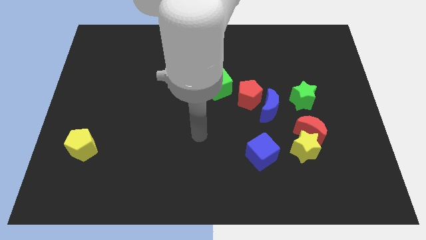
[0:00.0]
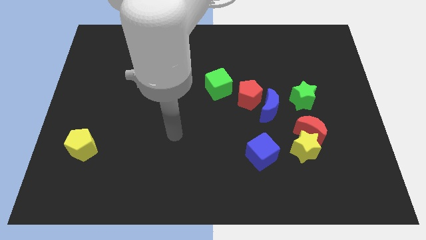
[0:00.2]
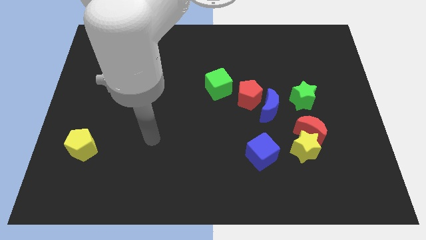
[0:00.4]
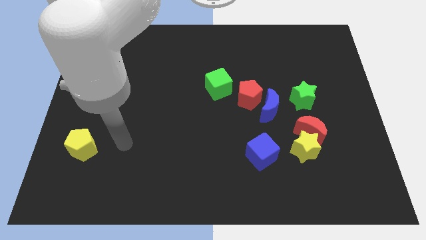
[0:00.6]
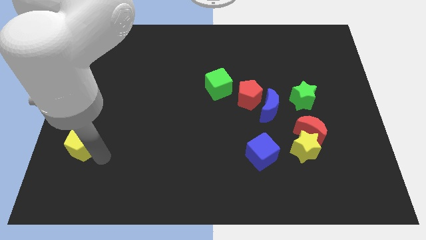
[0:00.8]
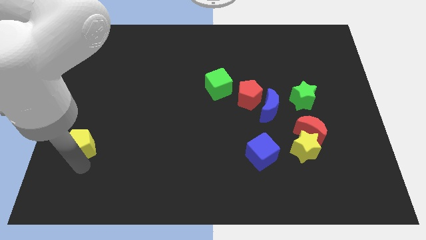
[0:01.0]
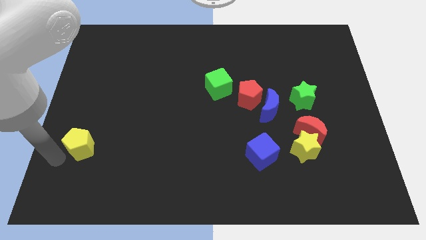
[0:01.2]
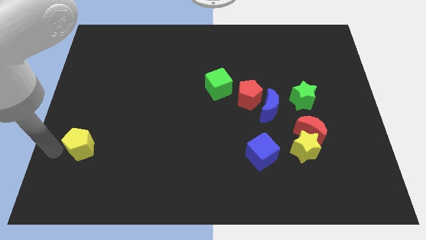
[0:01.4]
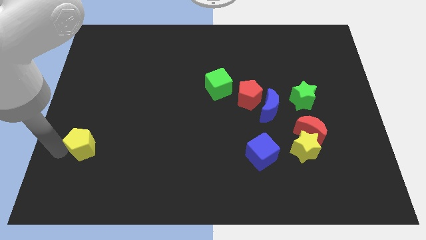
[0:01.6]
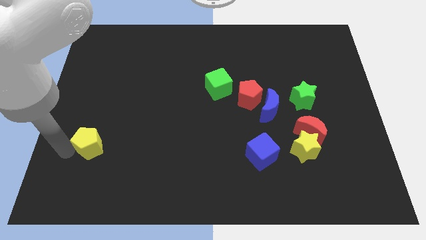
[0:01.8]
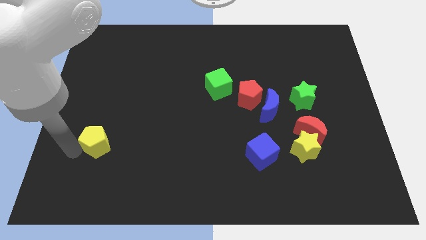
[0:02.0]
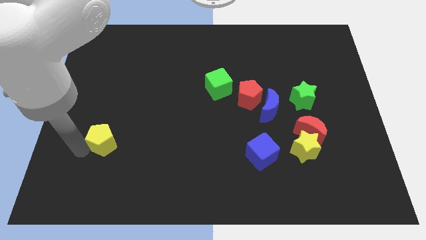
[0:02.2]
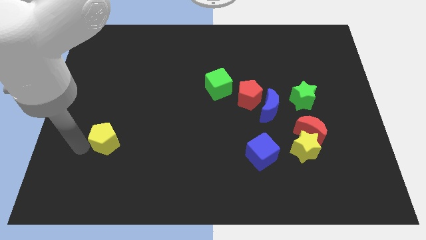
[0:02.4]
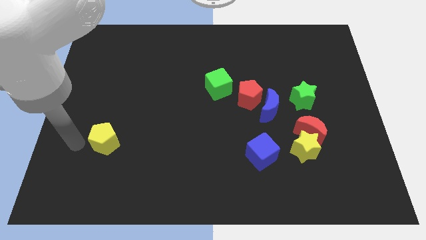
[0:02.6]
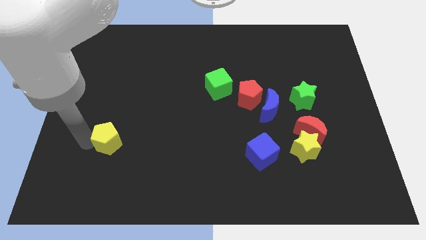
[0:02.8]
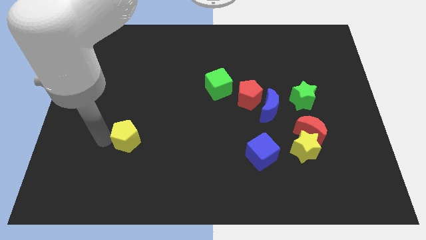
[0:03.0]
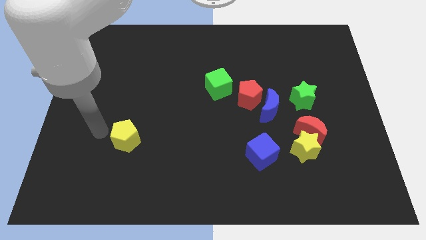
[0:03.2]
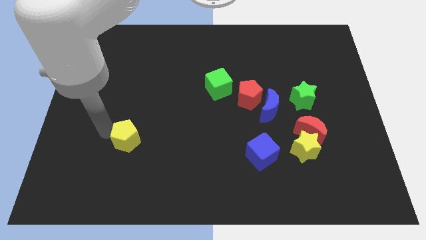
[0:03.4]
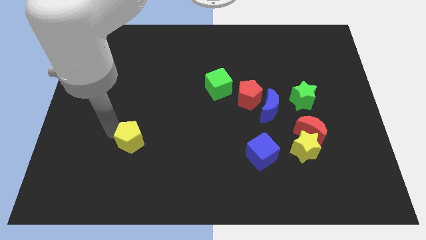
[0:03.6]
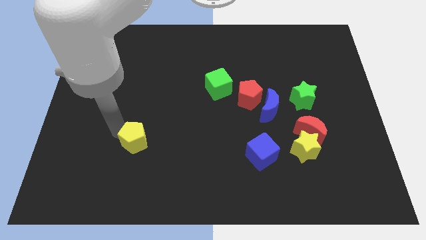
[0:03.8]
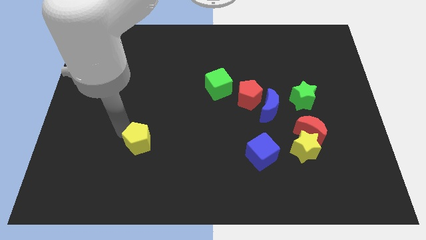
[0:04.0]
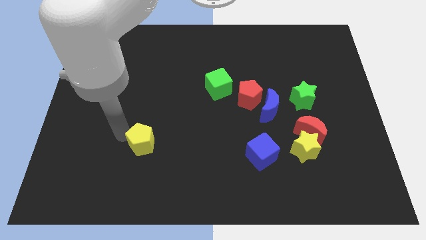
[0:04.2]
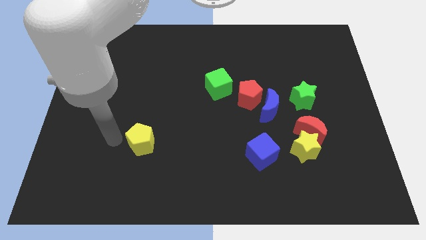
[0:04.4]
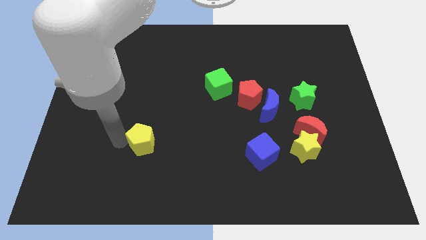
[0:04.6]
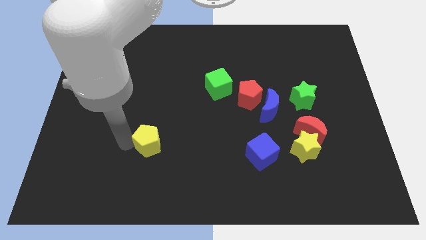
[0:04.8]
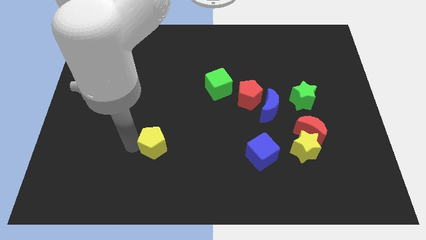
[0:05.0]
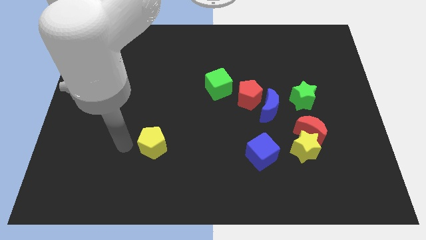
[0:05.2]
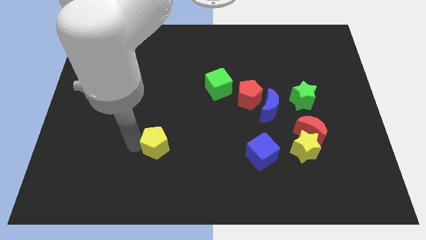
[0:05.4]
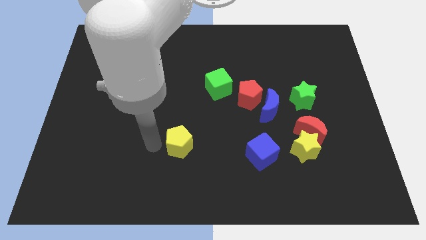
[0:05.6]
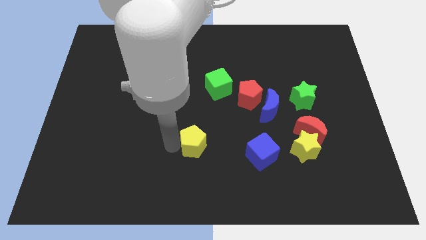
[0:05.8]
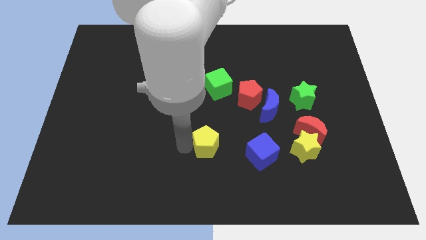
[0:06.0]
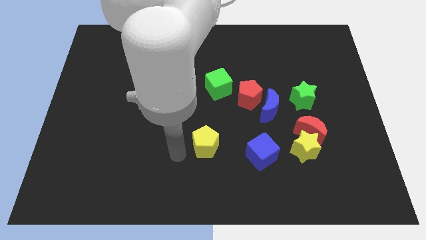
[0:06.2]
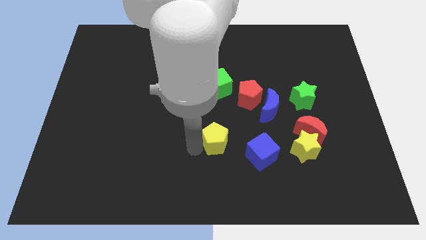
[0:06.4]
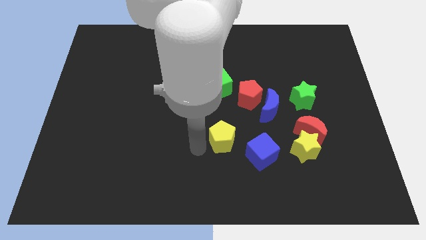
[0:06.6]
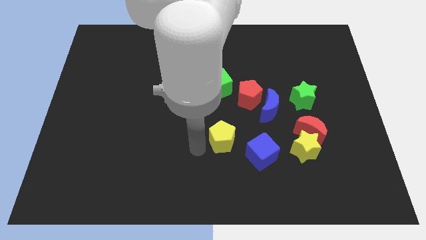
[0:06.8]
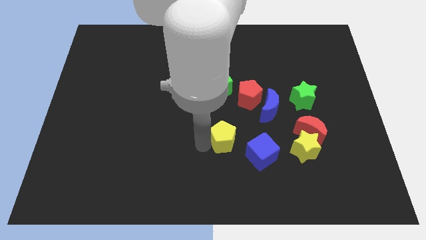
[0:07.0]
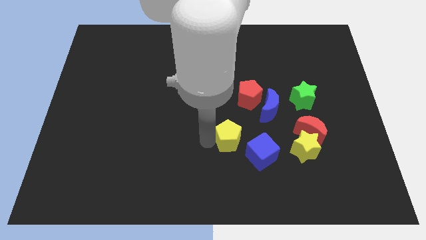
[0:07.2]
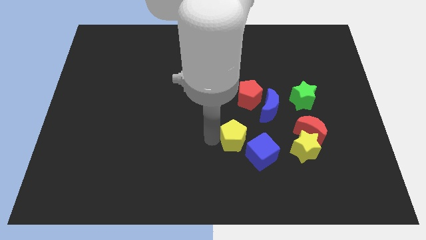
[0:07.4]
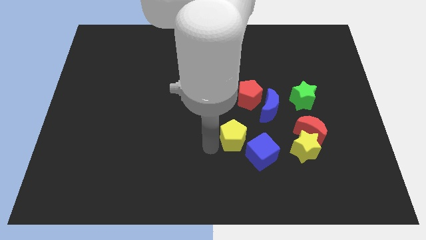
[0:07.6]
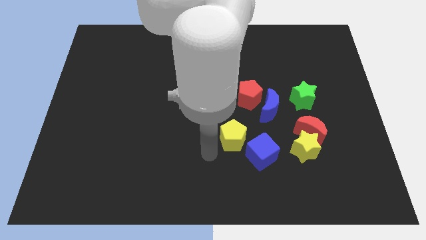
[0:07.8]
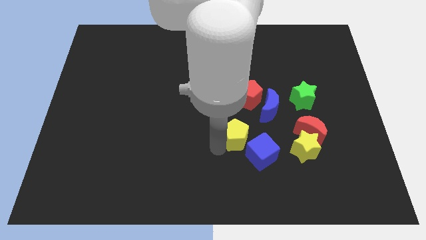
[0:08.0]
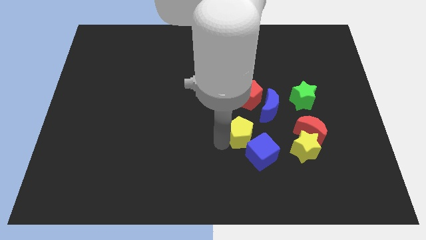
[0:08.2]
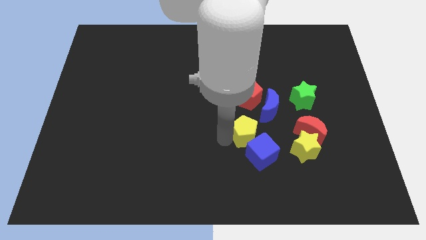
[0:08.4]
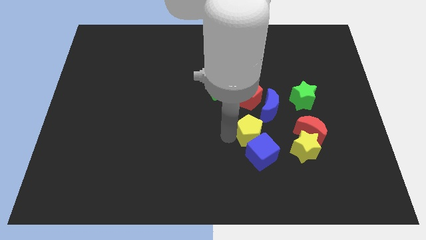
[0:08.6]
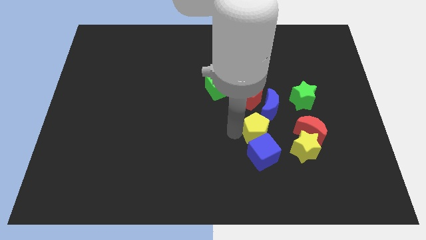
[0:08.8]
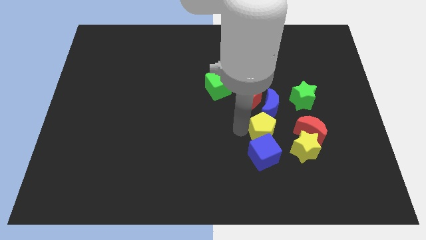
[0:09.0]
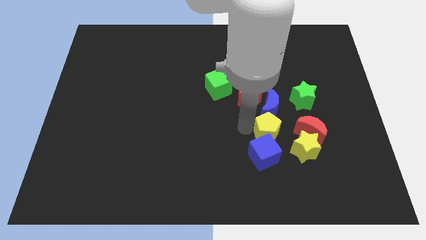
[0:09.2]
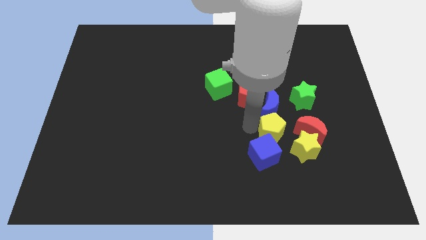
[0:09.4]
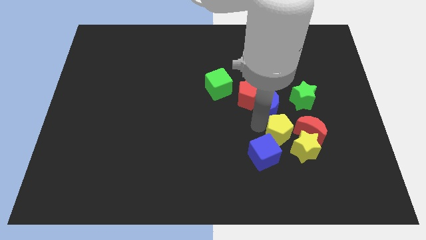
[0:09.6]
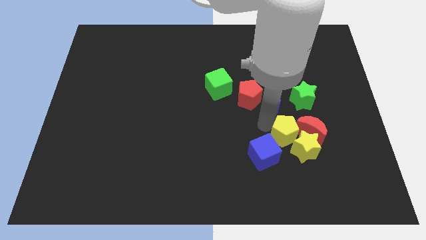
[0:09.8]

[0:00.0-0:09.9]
put the yellow pentagon next to the red moon

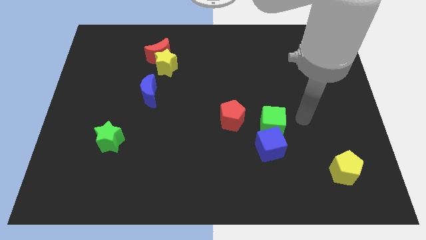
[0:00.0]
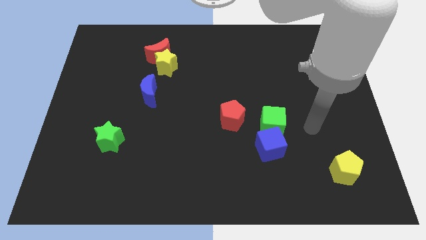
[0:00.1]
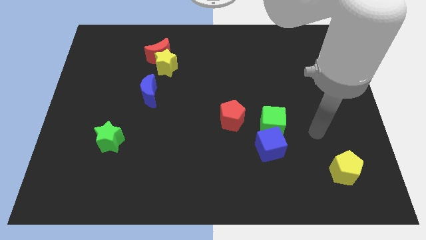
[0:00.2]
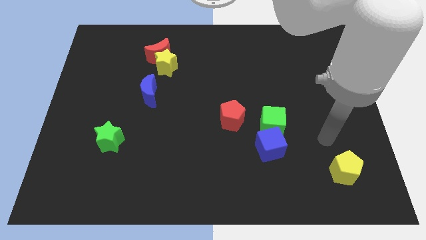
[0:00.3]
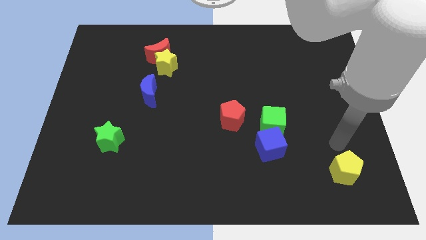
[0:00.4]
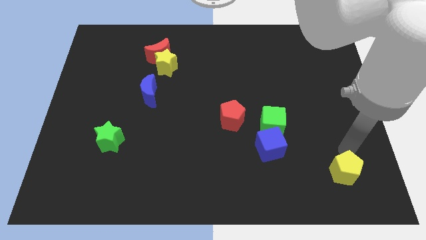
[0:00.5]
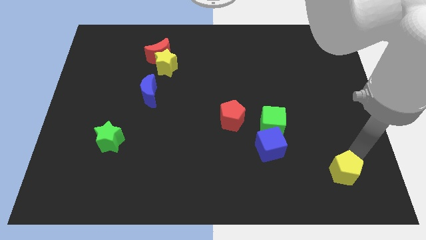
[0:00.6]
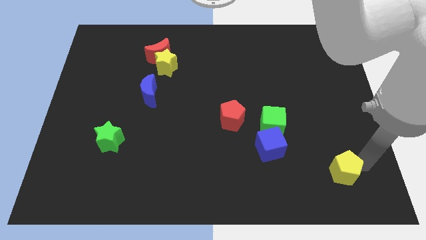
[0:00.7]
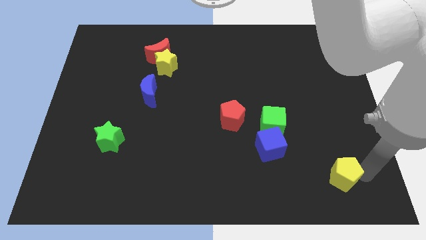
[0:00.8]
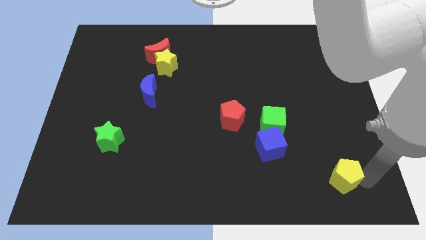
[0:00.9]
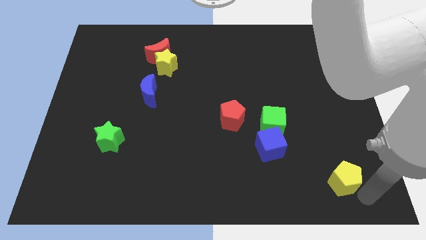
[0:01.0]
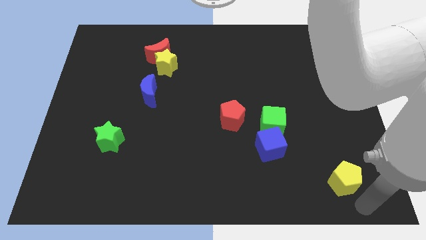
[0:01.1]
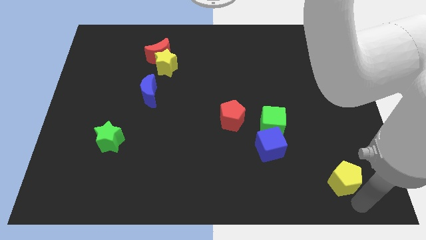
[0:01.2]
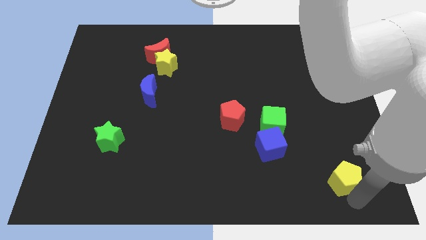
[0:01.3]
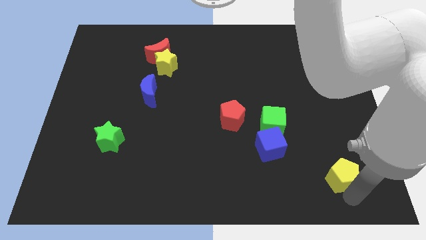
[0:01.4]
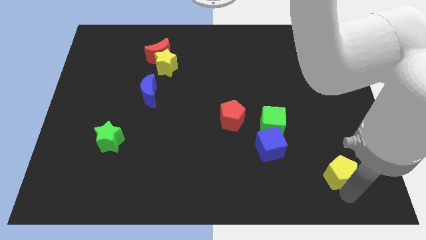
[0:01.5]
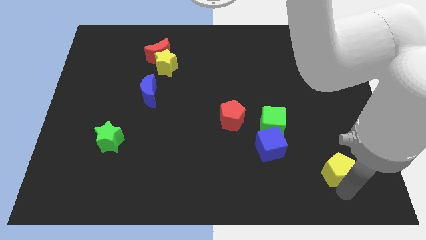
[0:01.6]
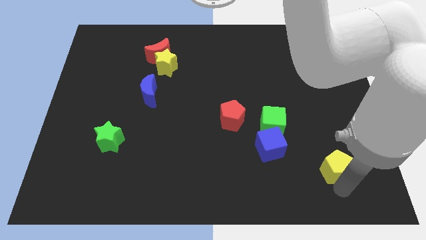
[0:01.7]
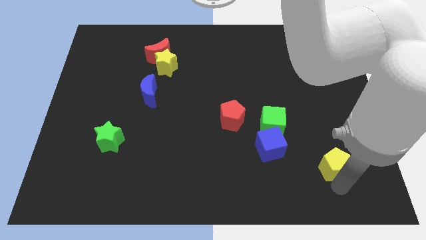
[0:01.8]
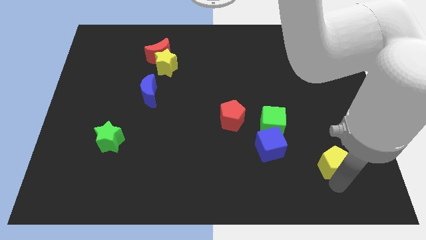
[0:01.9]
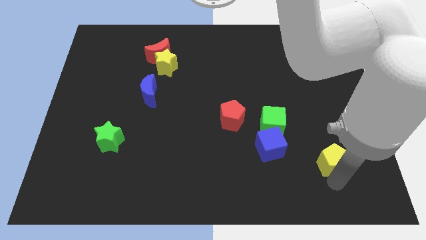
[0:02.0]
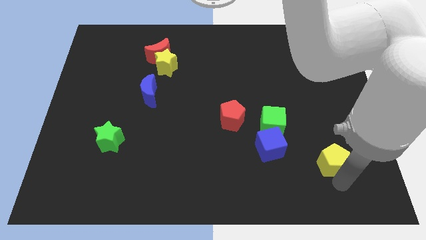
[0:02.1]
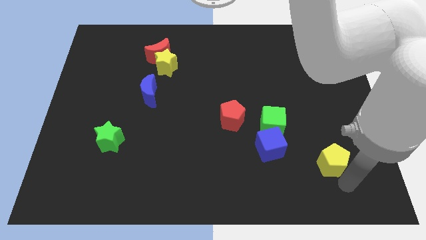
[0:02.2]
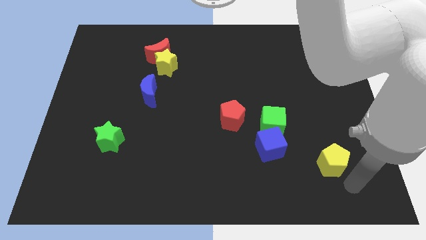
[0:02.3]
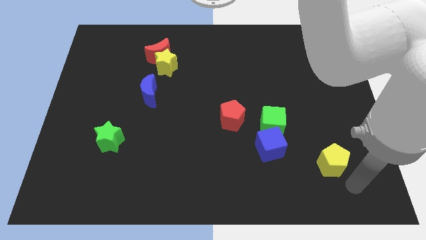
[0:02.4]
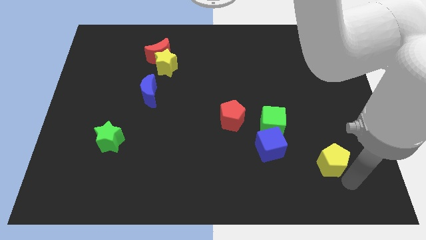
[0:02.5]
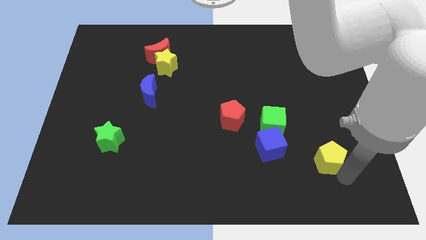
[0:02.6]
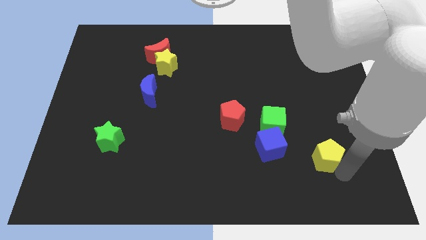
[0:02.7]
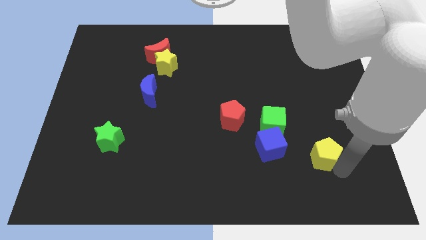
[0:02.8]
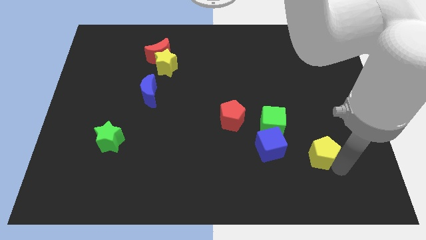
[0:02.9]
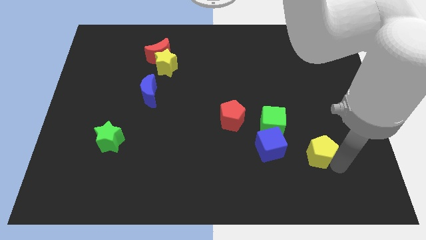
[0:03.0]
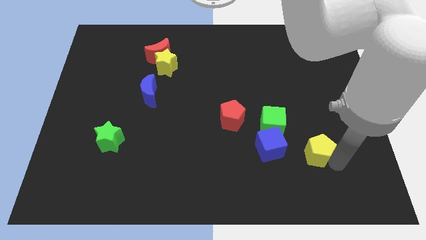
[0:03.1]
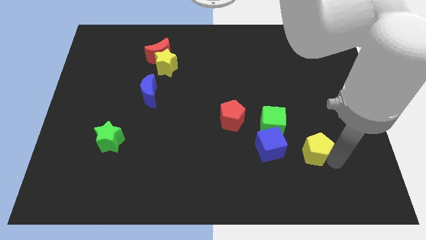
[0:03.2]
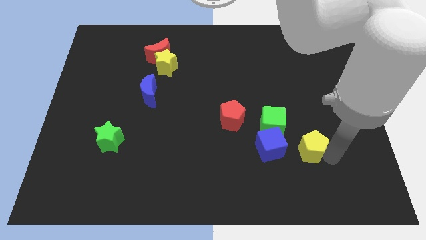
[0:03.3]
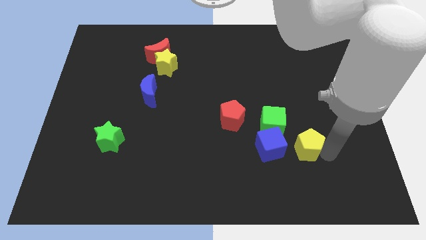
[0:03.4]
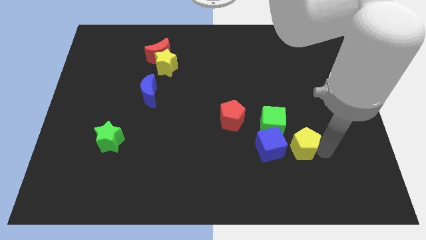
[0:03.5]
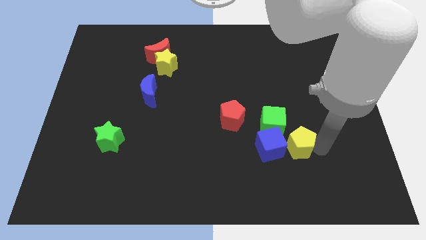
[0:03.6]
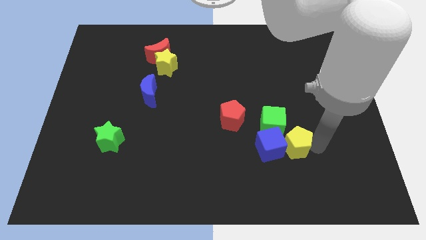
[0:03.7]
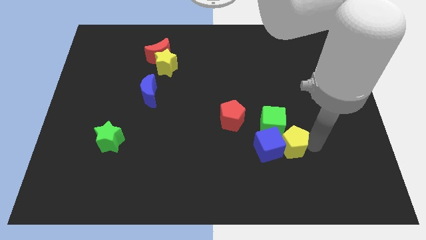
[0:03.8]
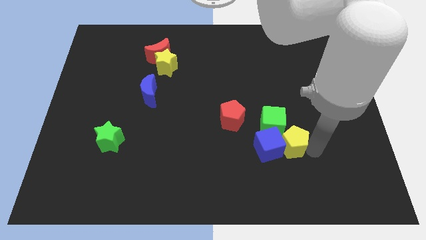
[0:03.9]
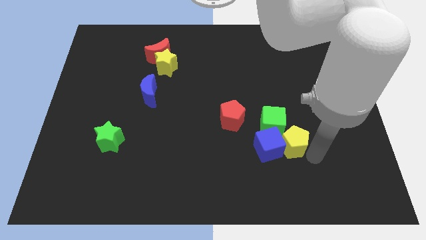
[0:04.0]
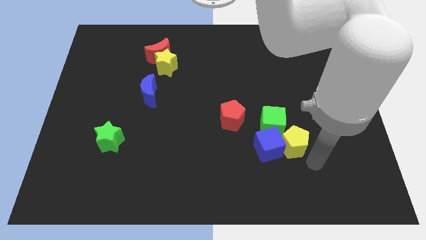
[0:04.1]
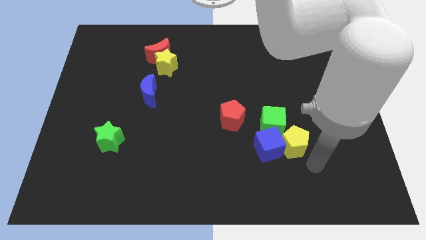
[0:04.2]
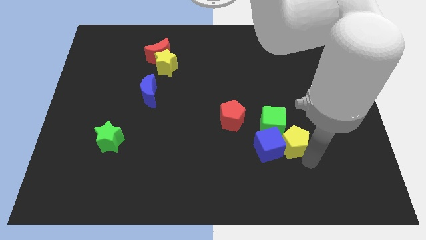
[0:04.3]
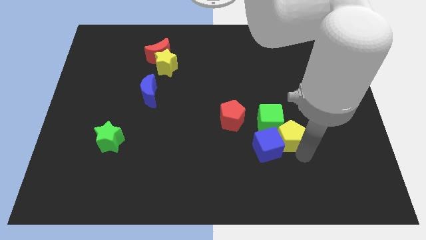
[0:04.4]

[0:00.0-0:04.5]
put the yellow pentagon close to the green cube
